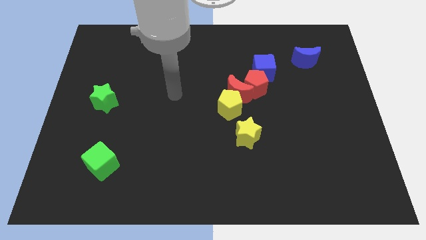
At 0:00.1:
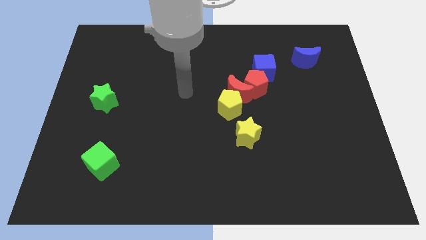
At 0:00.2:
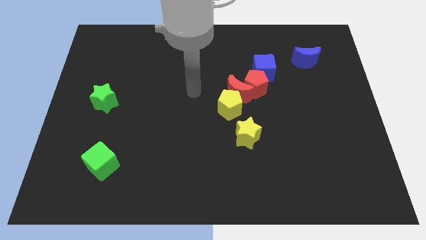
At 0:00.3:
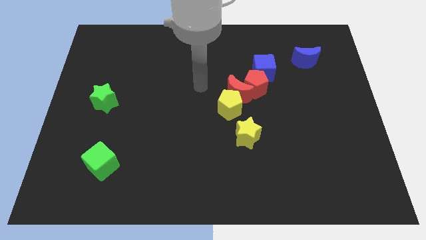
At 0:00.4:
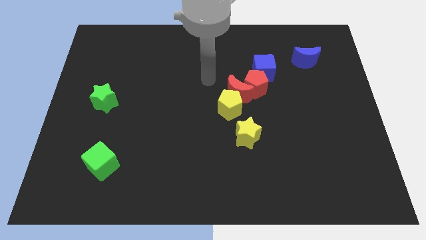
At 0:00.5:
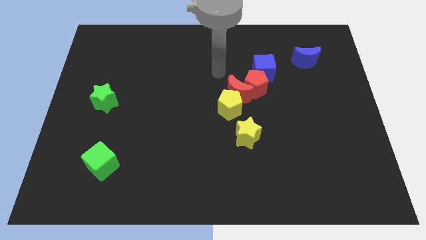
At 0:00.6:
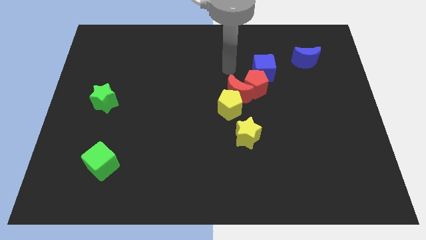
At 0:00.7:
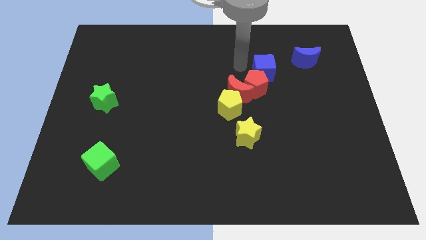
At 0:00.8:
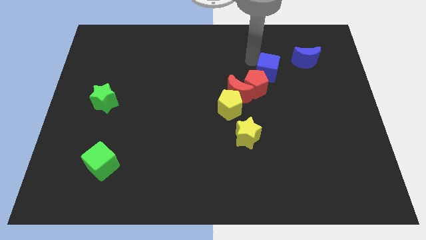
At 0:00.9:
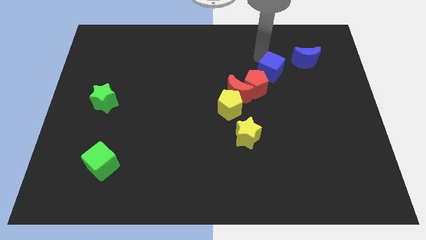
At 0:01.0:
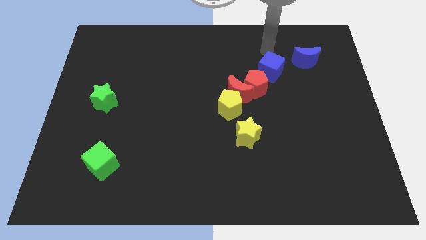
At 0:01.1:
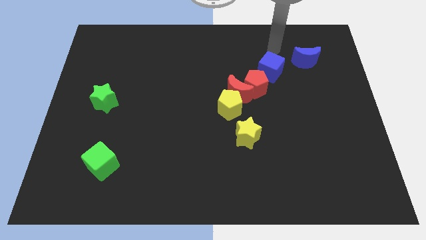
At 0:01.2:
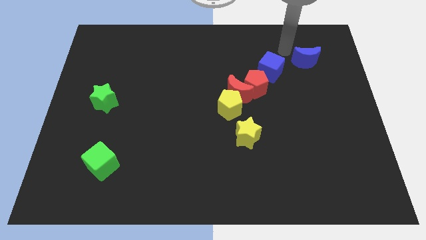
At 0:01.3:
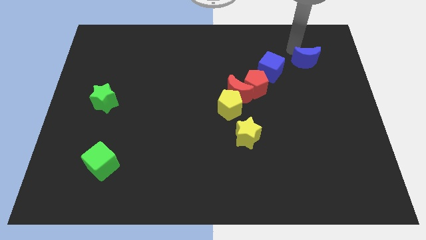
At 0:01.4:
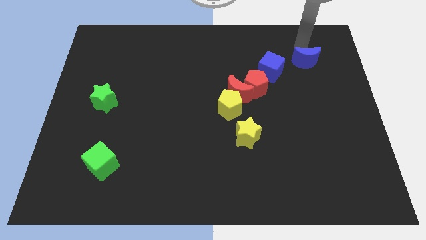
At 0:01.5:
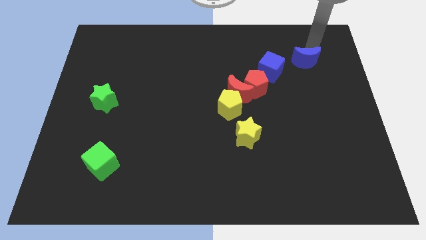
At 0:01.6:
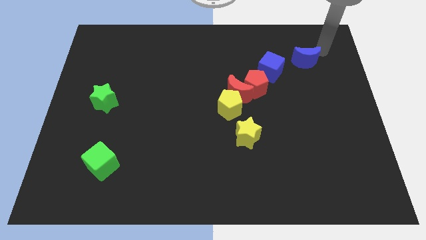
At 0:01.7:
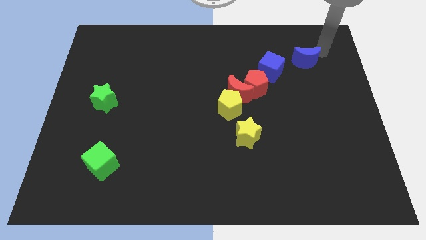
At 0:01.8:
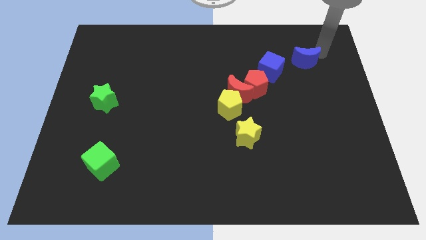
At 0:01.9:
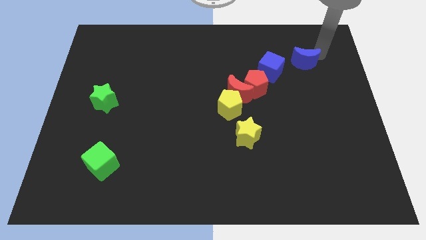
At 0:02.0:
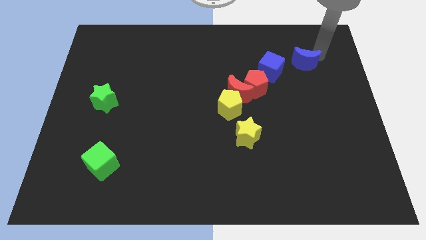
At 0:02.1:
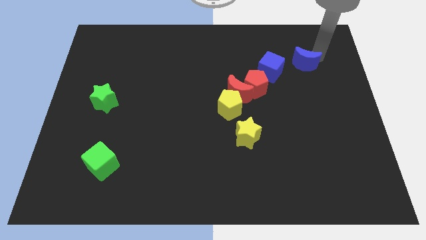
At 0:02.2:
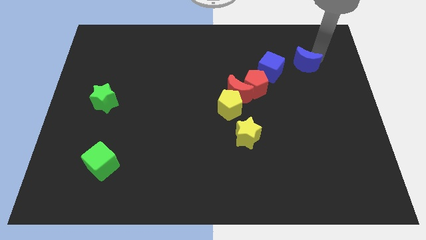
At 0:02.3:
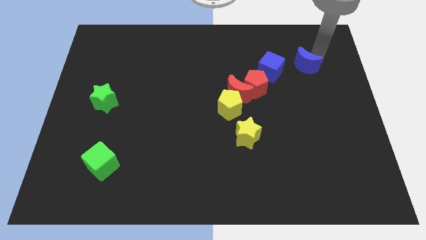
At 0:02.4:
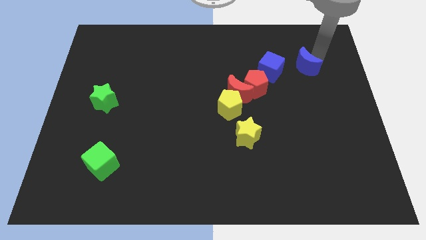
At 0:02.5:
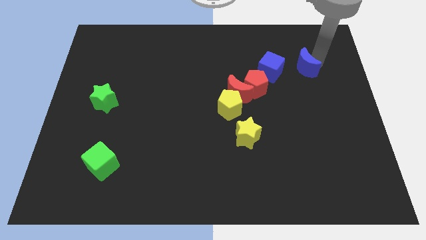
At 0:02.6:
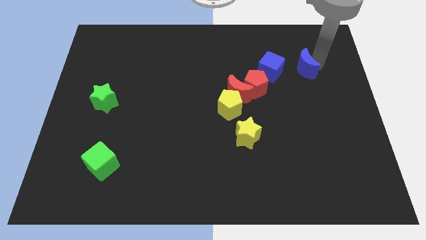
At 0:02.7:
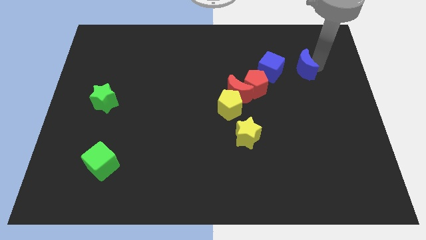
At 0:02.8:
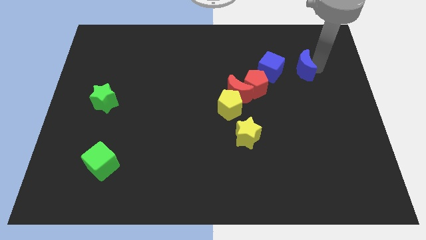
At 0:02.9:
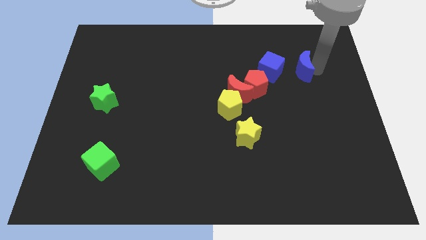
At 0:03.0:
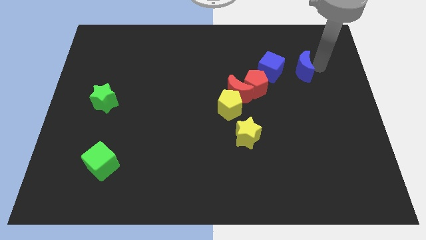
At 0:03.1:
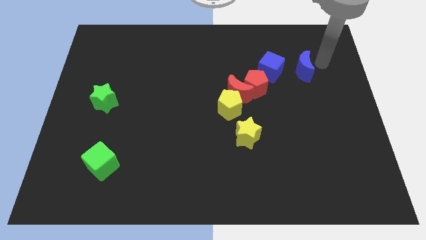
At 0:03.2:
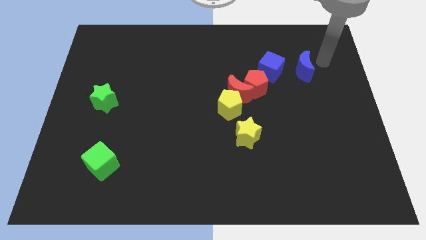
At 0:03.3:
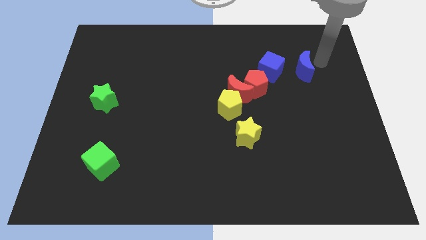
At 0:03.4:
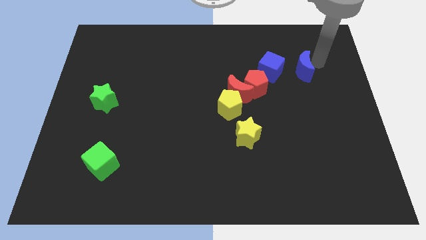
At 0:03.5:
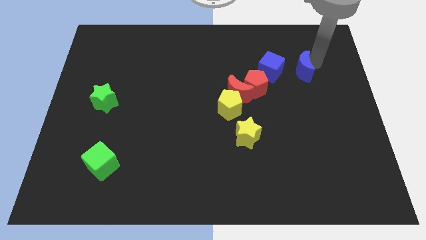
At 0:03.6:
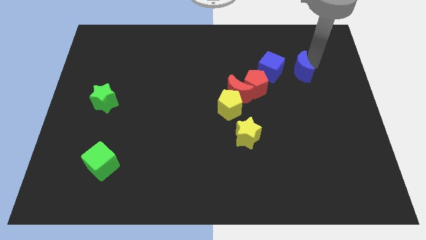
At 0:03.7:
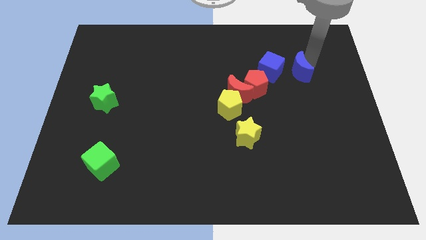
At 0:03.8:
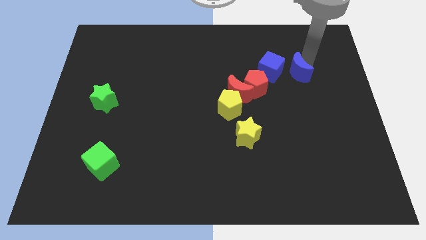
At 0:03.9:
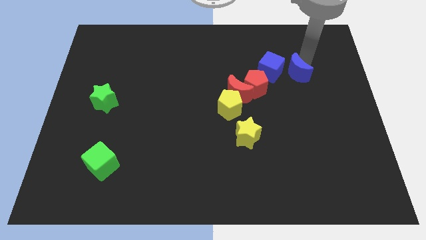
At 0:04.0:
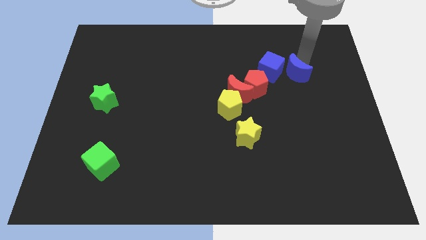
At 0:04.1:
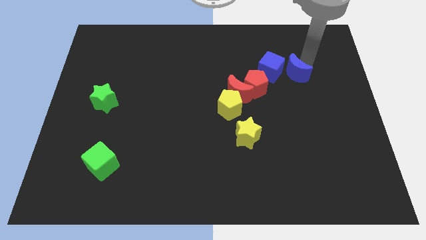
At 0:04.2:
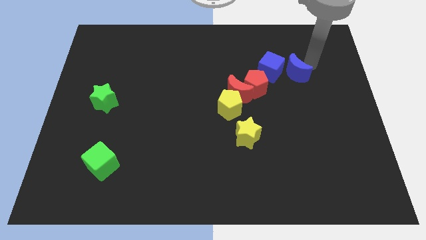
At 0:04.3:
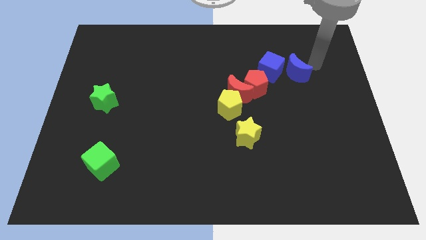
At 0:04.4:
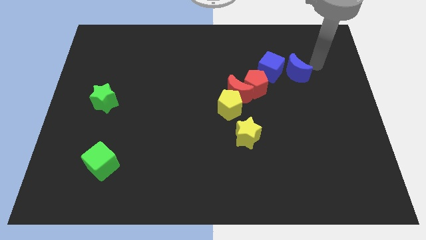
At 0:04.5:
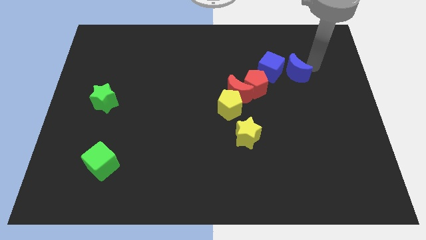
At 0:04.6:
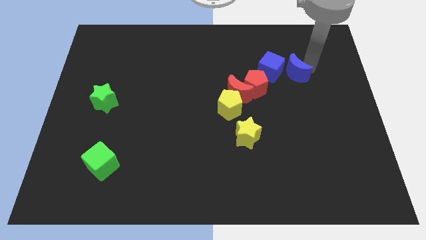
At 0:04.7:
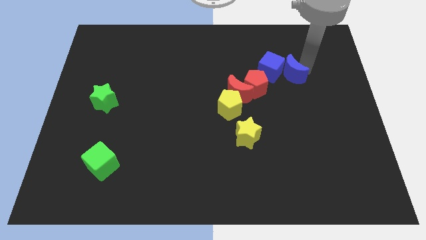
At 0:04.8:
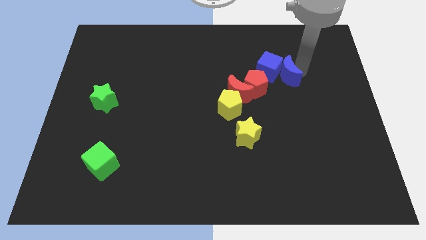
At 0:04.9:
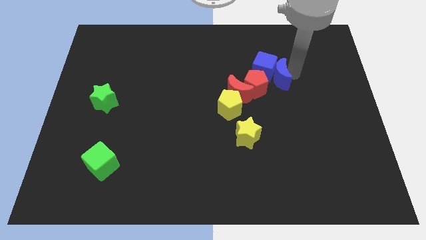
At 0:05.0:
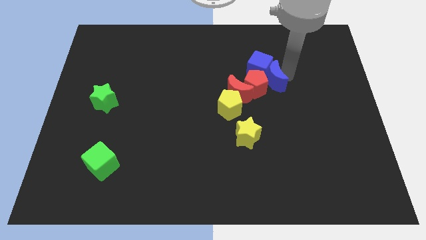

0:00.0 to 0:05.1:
put the blue moon close to the red pentagon

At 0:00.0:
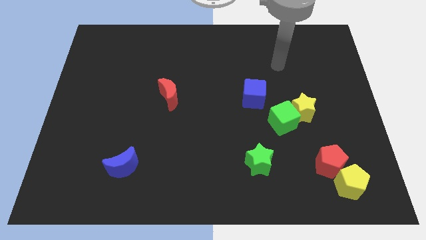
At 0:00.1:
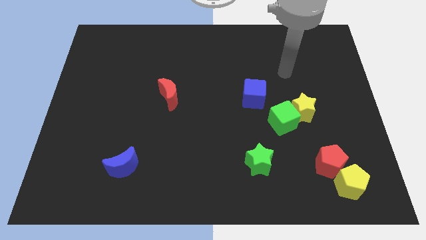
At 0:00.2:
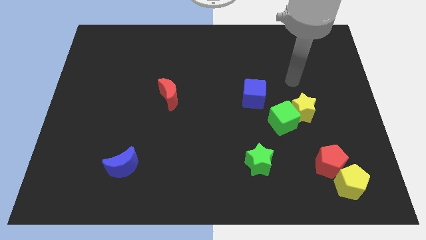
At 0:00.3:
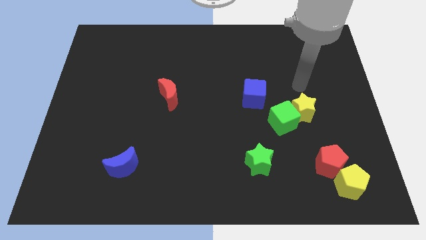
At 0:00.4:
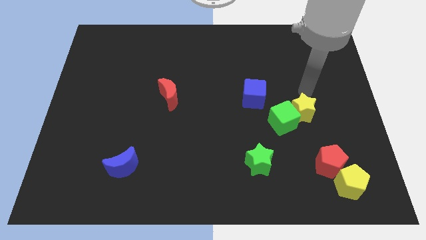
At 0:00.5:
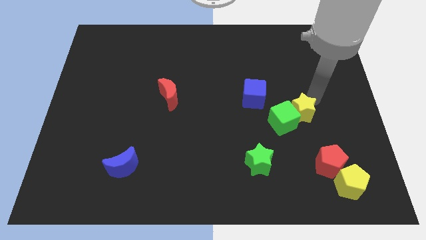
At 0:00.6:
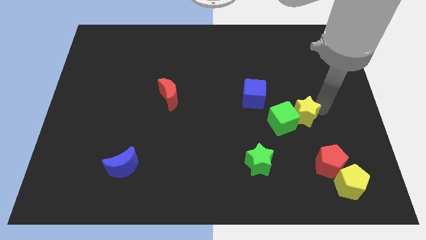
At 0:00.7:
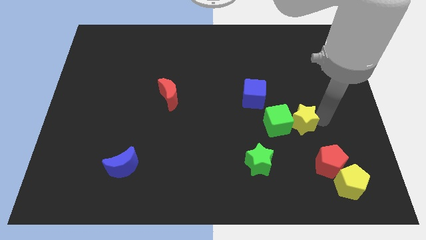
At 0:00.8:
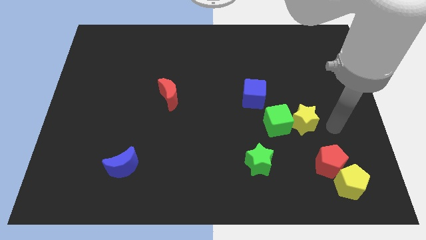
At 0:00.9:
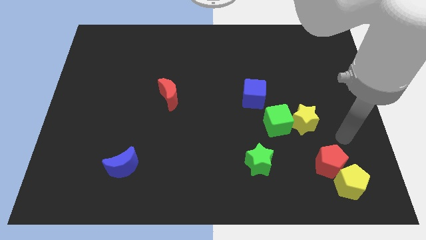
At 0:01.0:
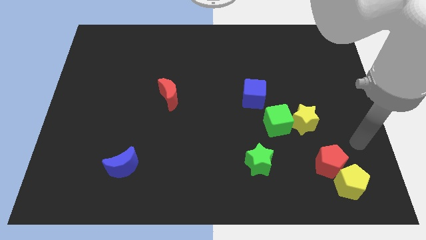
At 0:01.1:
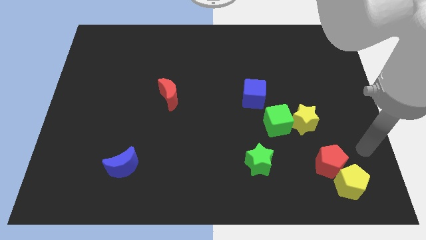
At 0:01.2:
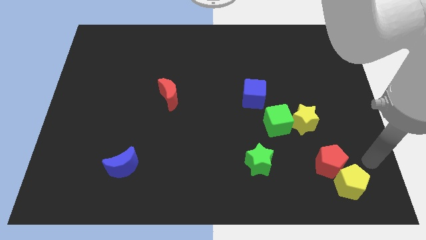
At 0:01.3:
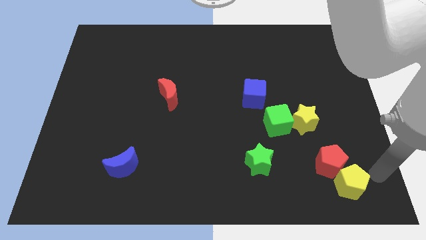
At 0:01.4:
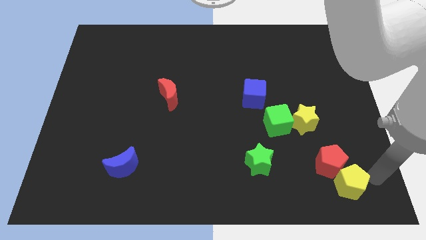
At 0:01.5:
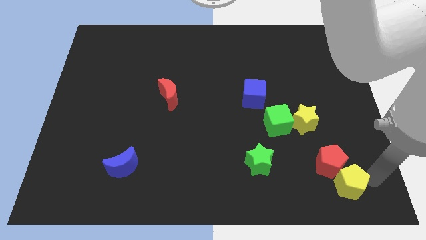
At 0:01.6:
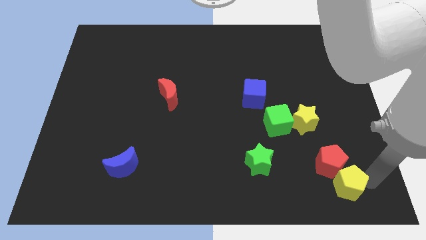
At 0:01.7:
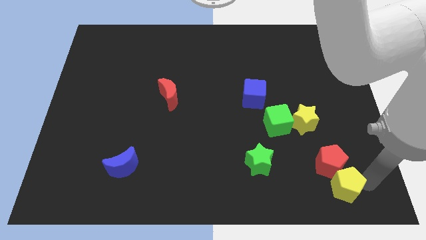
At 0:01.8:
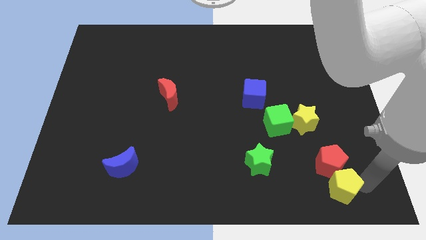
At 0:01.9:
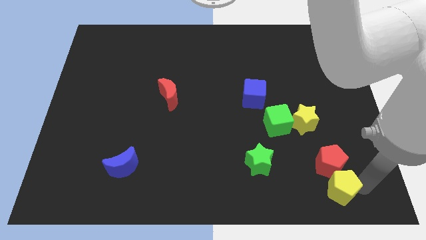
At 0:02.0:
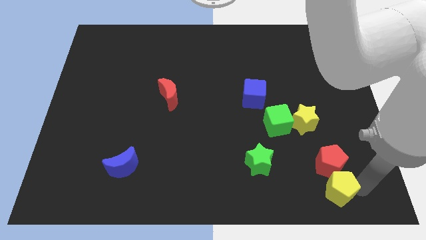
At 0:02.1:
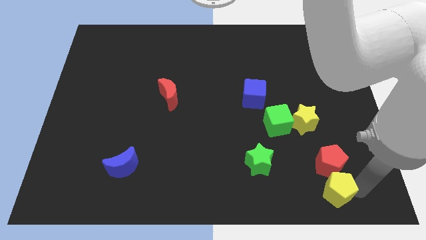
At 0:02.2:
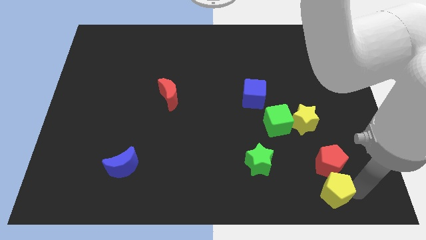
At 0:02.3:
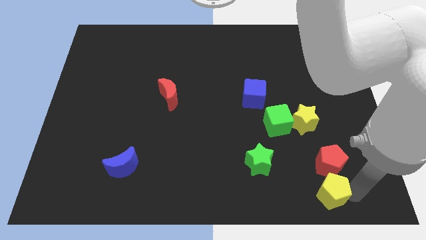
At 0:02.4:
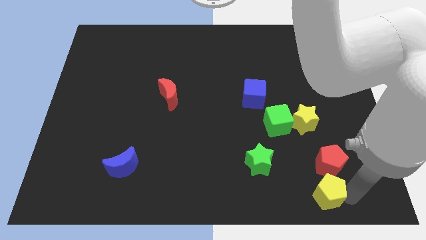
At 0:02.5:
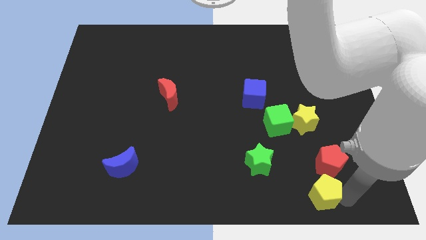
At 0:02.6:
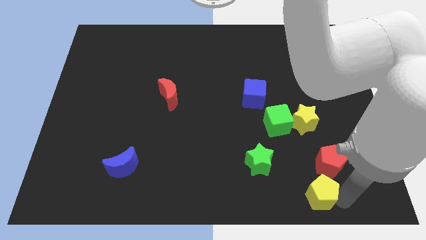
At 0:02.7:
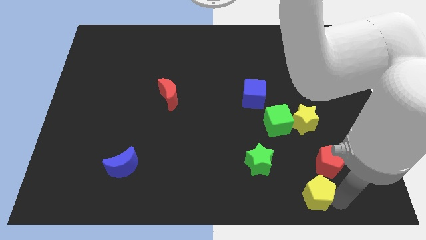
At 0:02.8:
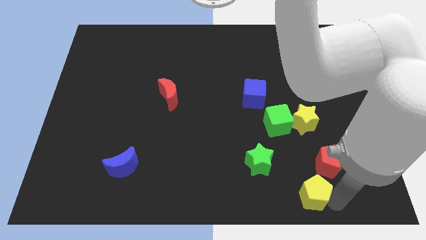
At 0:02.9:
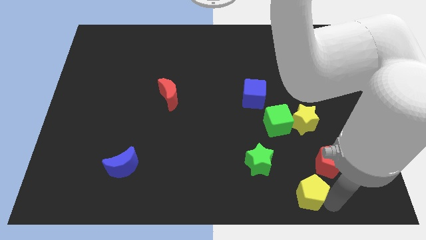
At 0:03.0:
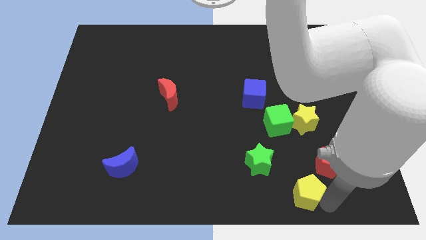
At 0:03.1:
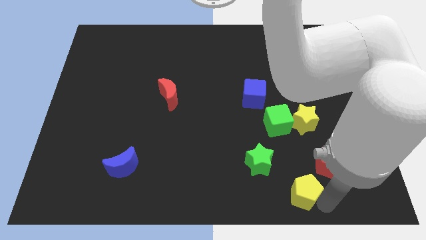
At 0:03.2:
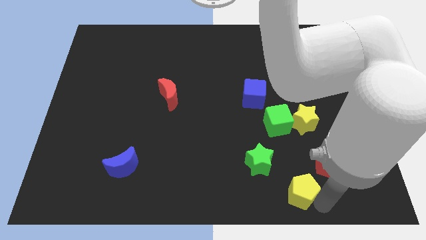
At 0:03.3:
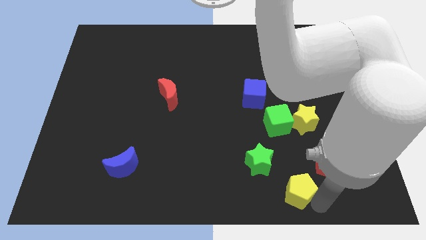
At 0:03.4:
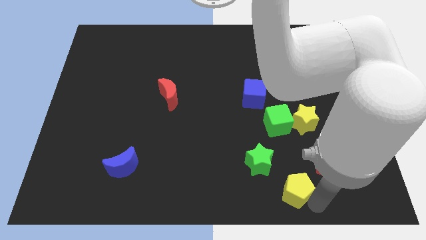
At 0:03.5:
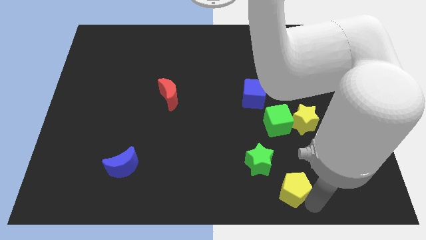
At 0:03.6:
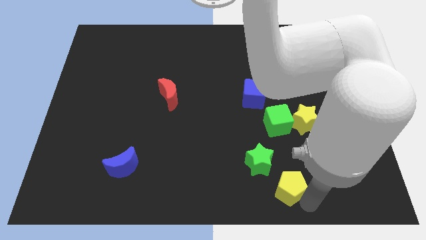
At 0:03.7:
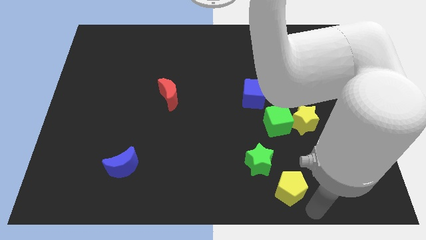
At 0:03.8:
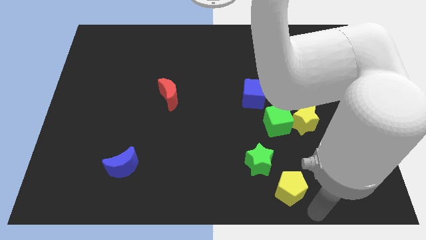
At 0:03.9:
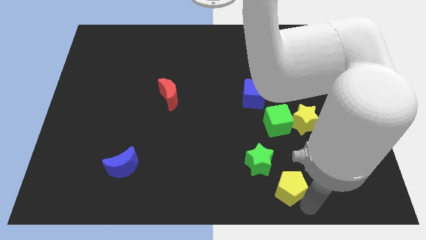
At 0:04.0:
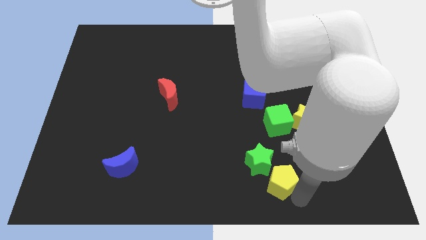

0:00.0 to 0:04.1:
slide the yellow pentagon next to the green star
